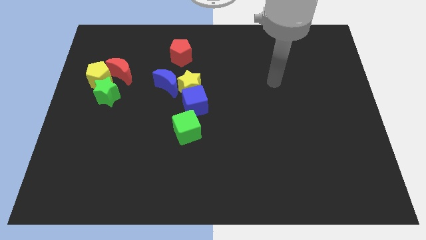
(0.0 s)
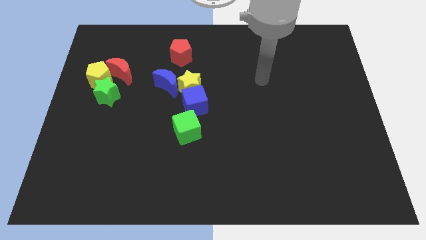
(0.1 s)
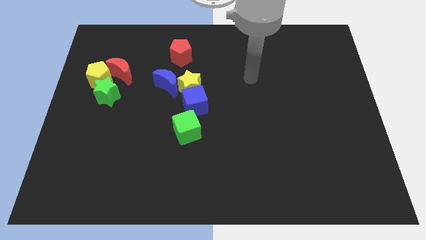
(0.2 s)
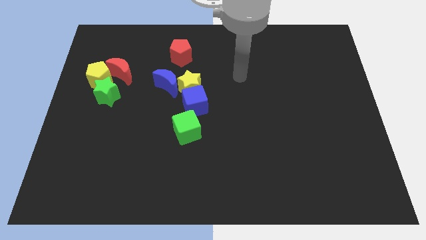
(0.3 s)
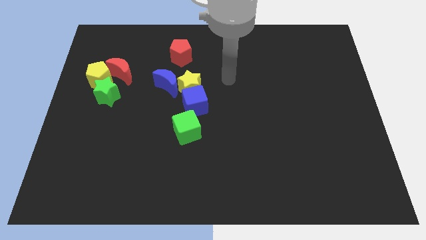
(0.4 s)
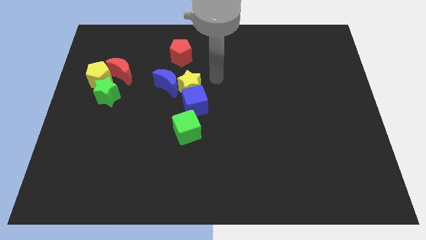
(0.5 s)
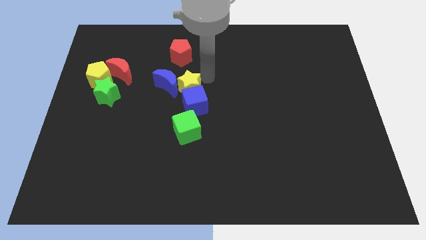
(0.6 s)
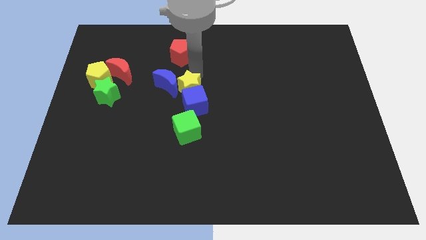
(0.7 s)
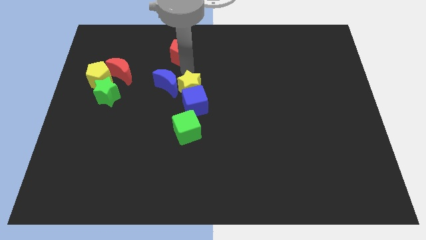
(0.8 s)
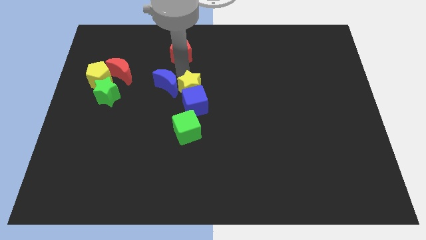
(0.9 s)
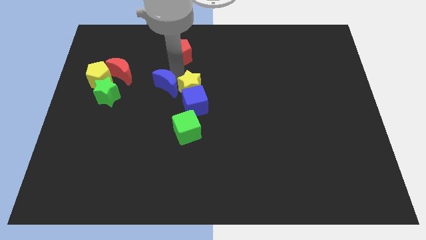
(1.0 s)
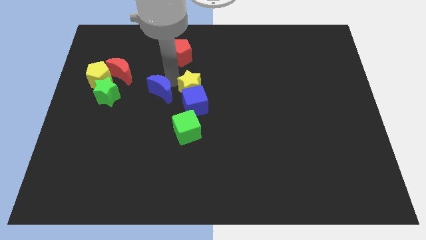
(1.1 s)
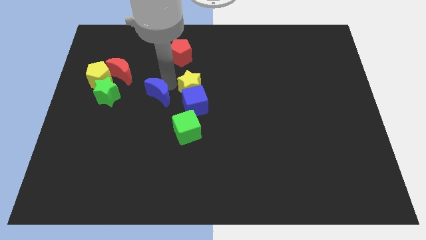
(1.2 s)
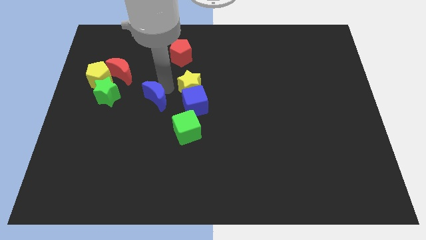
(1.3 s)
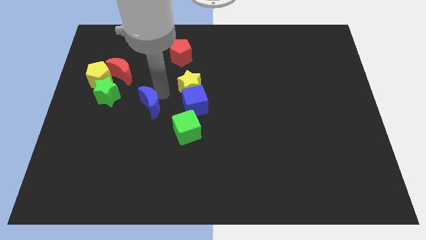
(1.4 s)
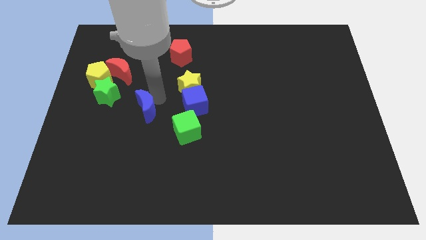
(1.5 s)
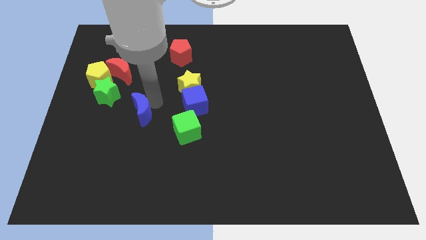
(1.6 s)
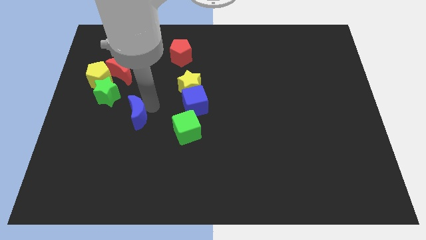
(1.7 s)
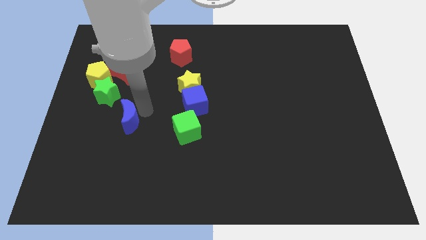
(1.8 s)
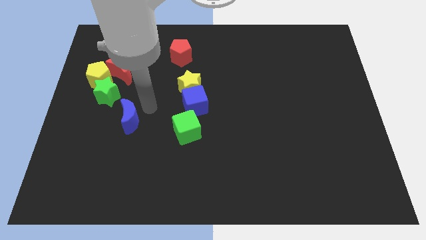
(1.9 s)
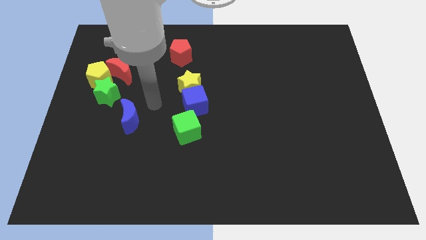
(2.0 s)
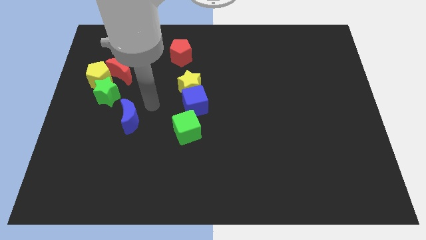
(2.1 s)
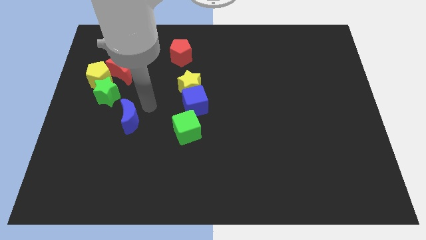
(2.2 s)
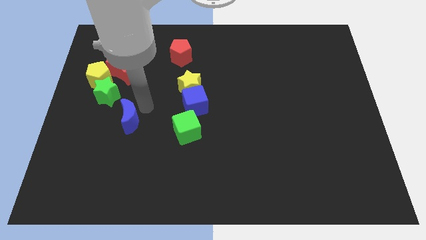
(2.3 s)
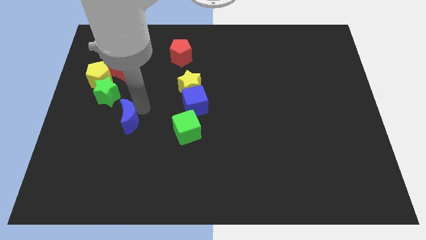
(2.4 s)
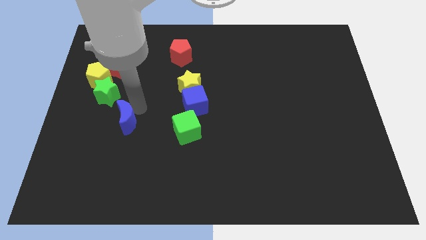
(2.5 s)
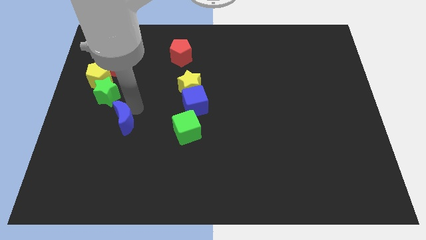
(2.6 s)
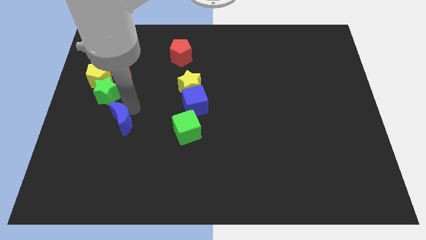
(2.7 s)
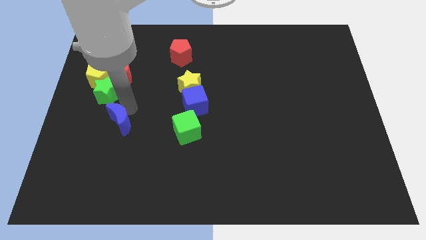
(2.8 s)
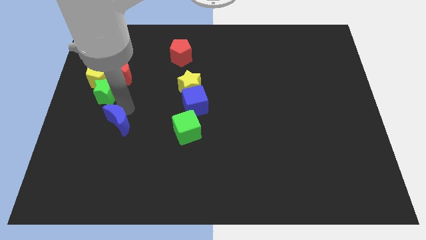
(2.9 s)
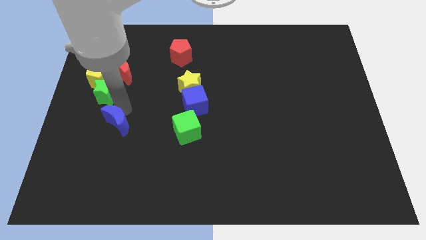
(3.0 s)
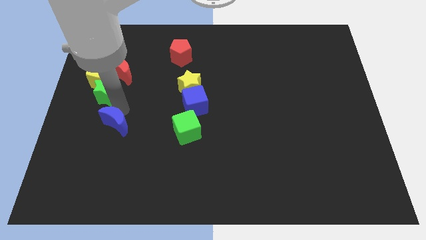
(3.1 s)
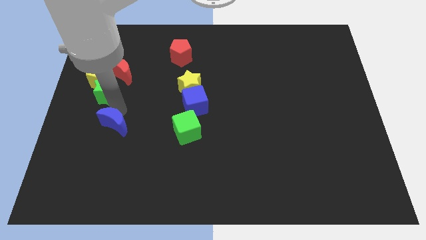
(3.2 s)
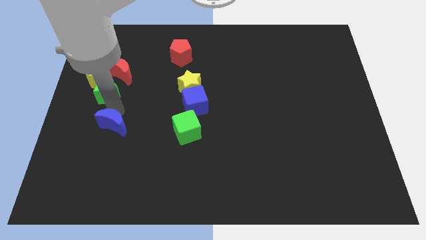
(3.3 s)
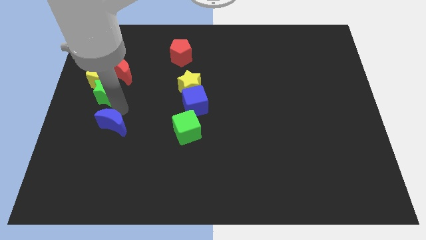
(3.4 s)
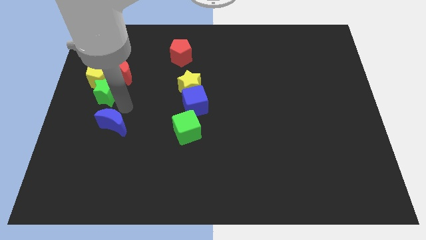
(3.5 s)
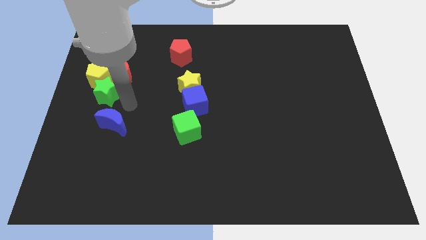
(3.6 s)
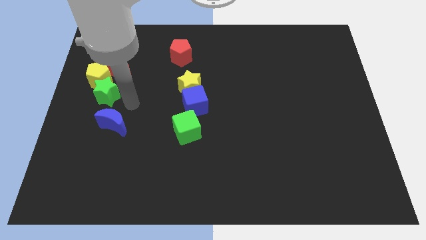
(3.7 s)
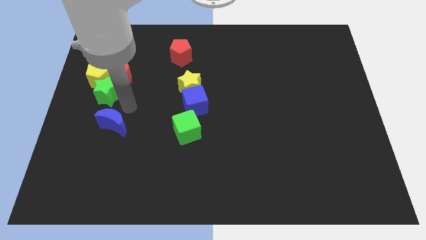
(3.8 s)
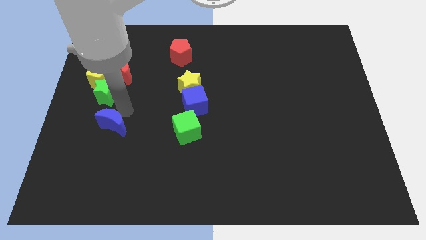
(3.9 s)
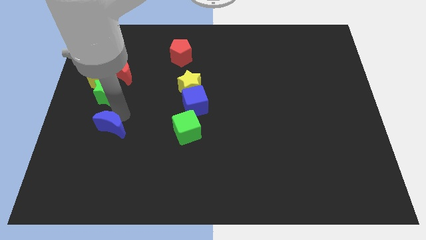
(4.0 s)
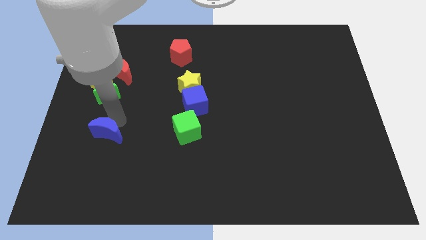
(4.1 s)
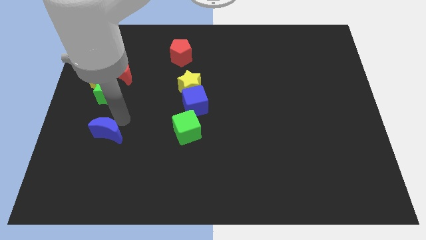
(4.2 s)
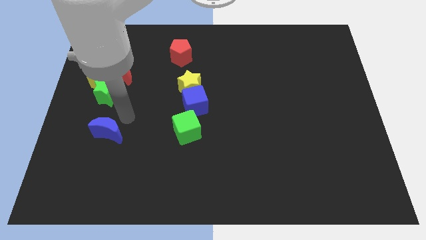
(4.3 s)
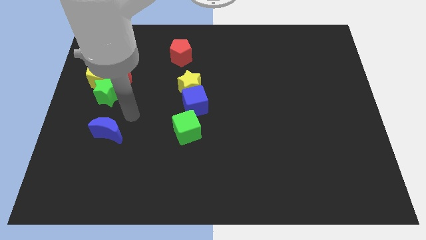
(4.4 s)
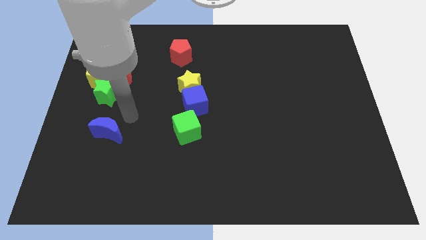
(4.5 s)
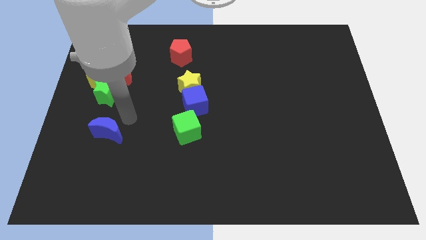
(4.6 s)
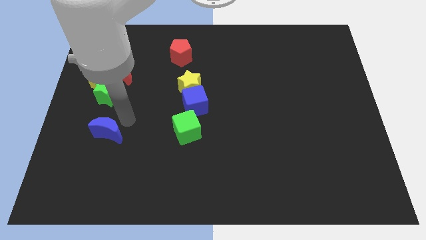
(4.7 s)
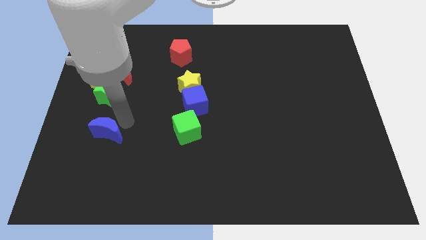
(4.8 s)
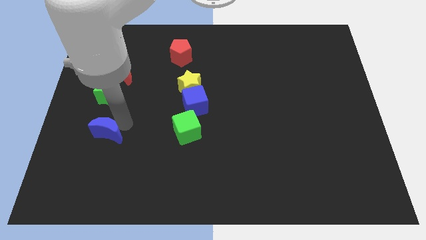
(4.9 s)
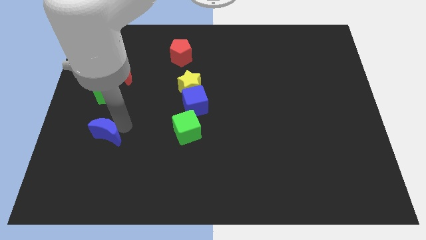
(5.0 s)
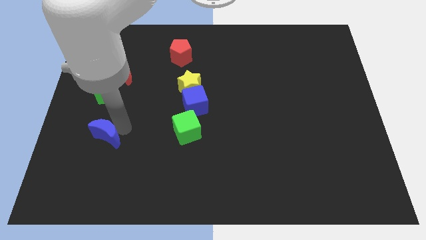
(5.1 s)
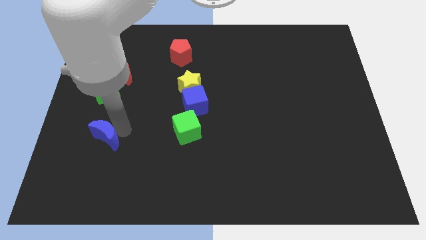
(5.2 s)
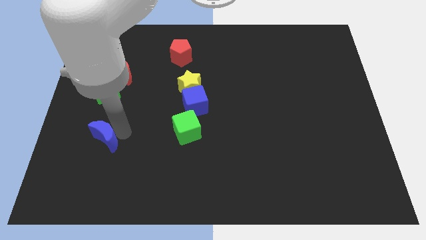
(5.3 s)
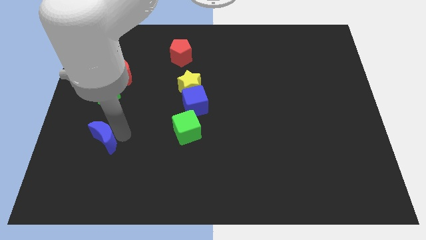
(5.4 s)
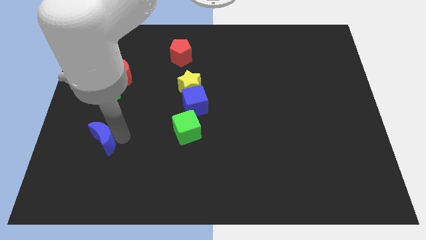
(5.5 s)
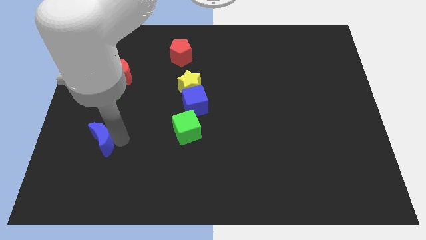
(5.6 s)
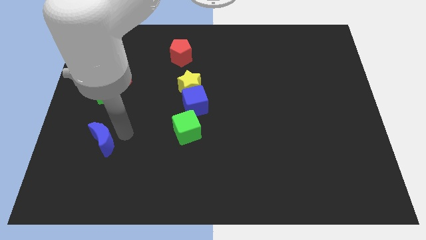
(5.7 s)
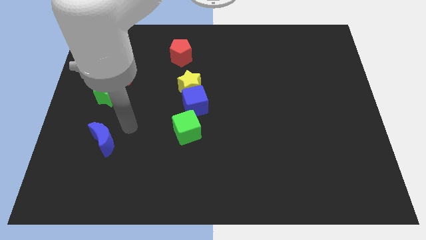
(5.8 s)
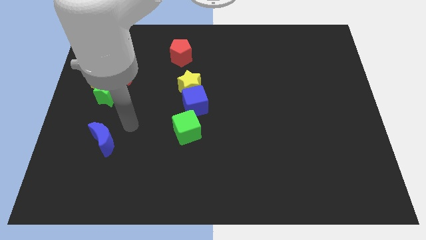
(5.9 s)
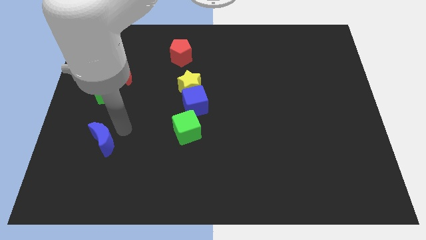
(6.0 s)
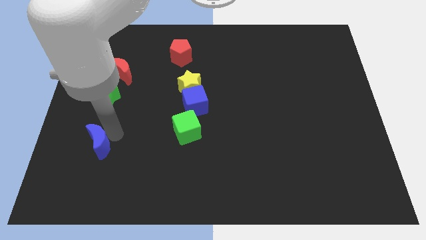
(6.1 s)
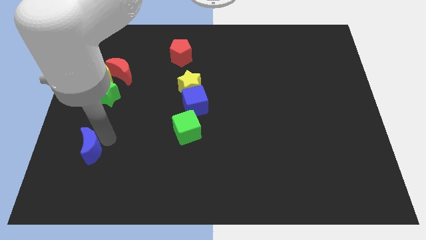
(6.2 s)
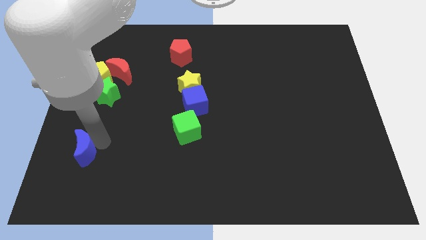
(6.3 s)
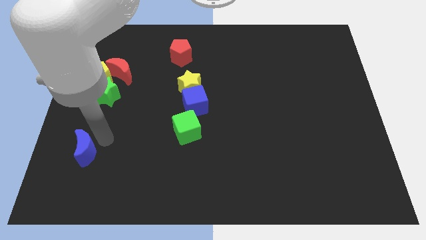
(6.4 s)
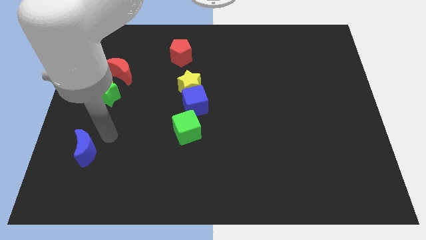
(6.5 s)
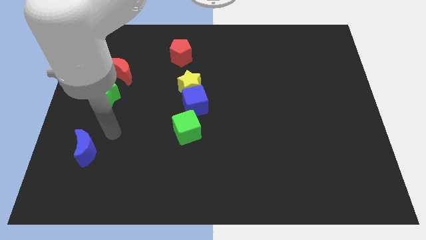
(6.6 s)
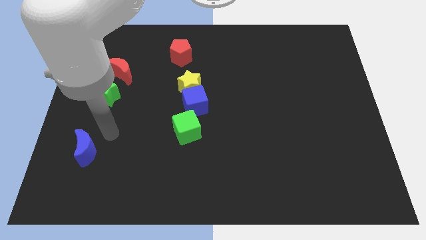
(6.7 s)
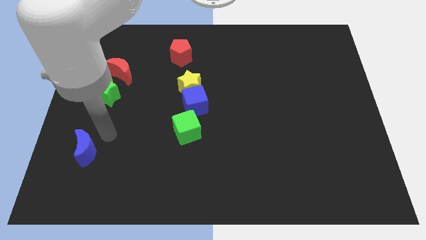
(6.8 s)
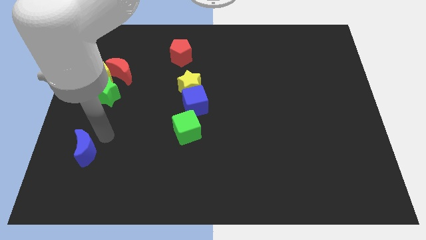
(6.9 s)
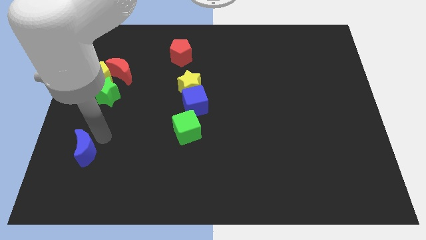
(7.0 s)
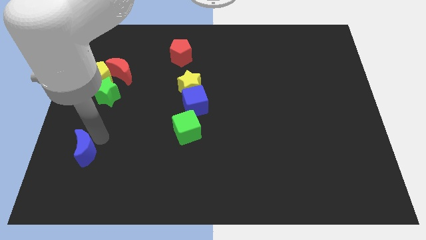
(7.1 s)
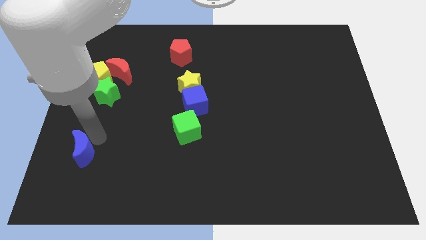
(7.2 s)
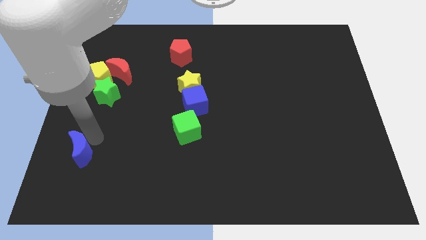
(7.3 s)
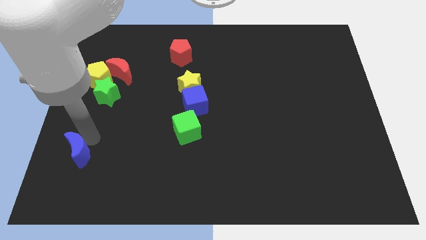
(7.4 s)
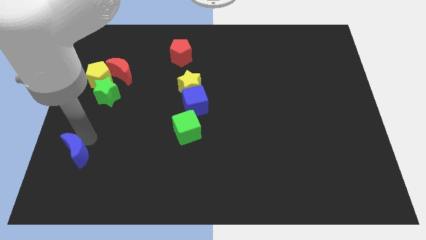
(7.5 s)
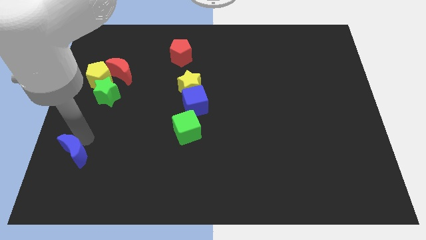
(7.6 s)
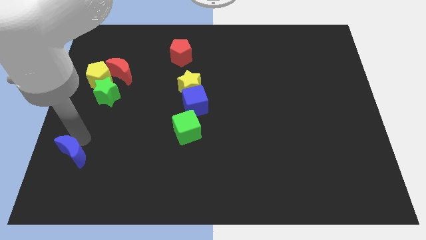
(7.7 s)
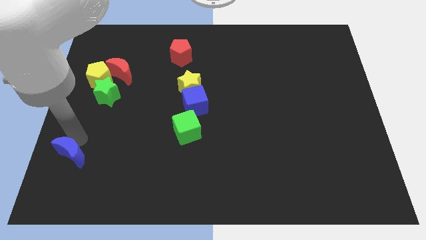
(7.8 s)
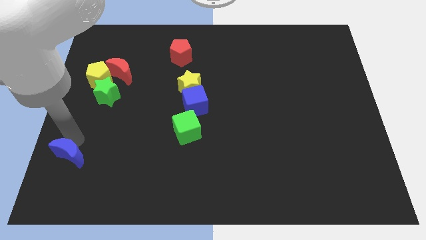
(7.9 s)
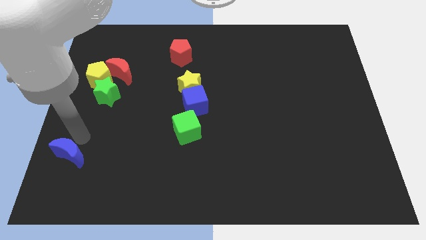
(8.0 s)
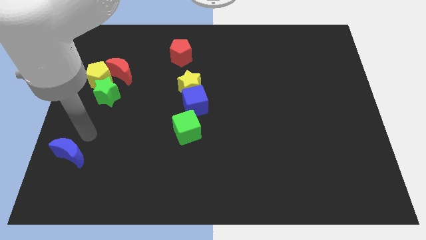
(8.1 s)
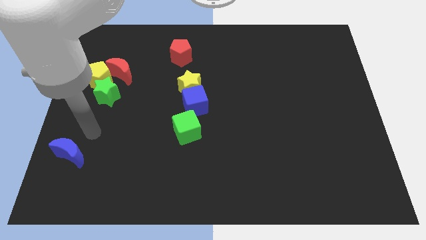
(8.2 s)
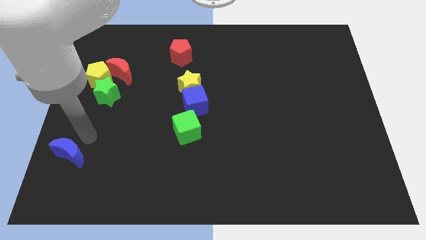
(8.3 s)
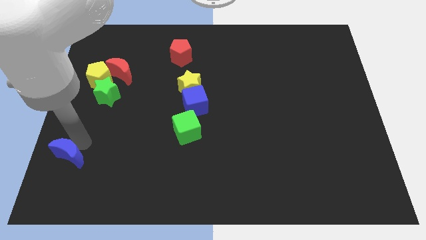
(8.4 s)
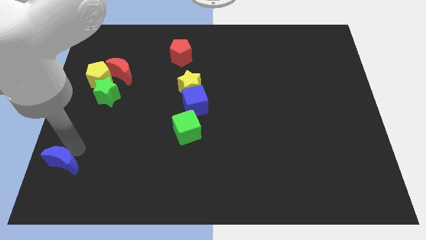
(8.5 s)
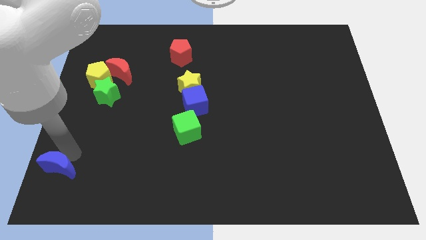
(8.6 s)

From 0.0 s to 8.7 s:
push the blue moon to the bottom left of the board
